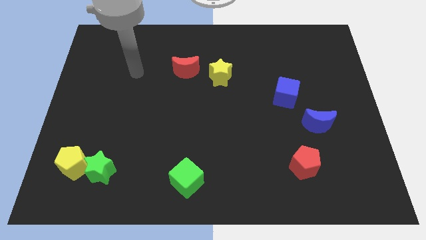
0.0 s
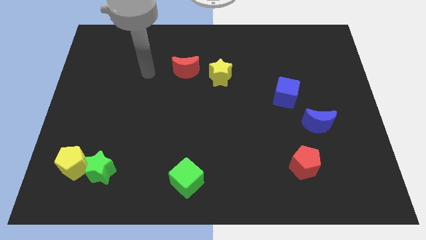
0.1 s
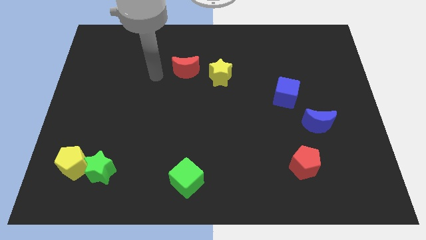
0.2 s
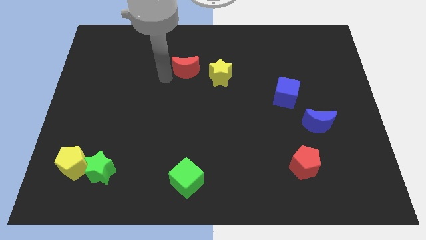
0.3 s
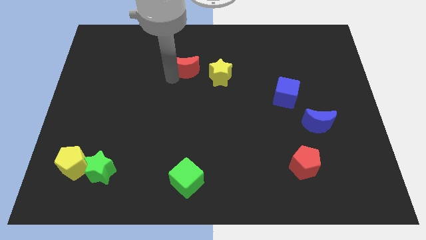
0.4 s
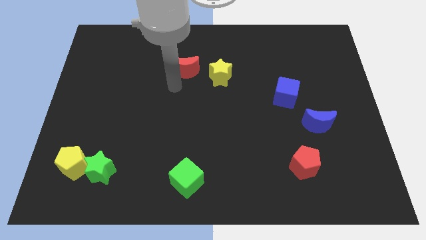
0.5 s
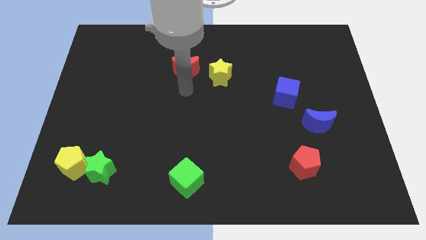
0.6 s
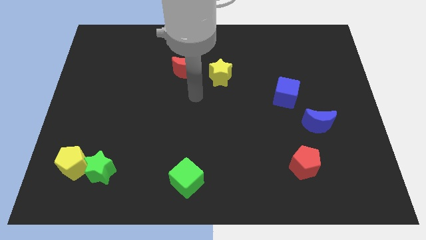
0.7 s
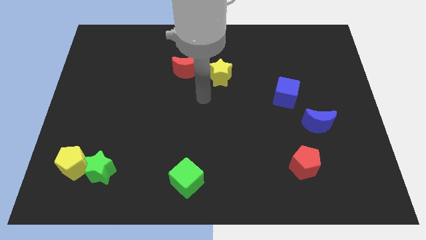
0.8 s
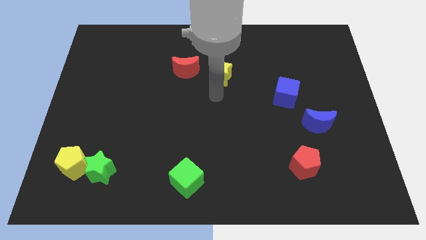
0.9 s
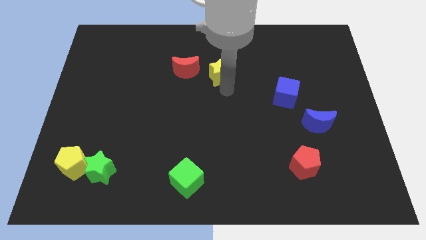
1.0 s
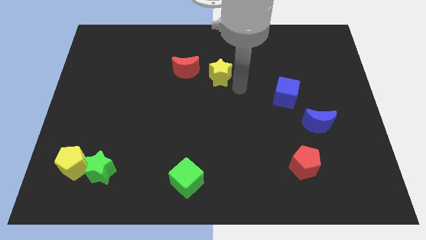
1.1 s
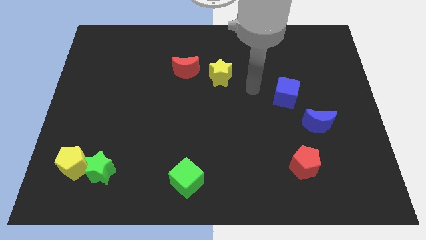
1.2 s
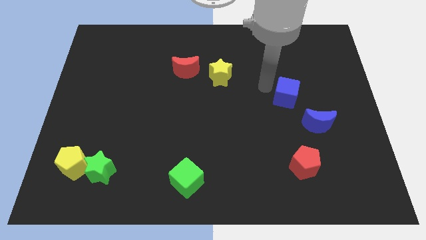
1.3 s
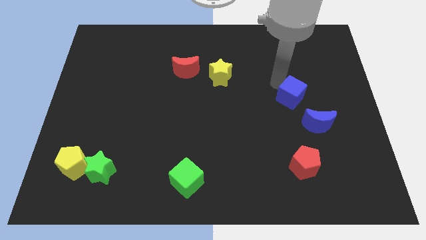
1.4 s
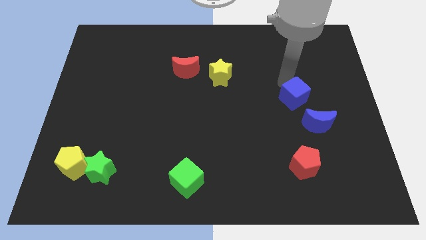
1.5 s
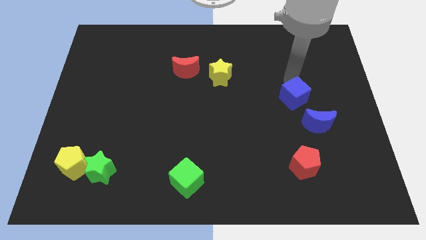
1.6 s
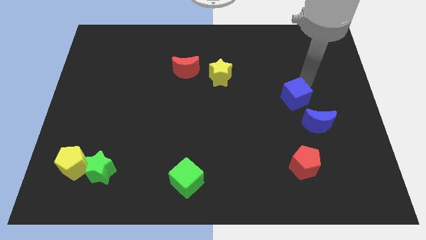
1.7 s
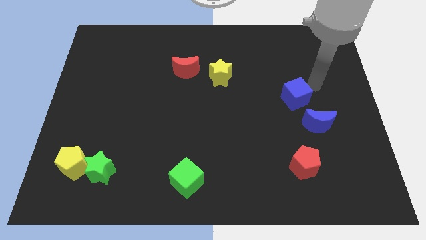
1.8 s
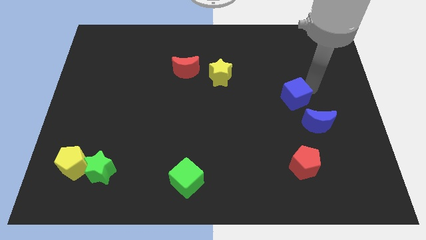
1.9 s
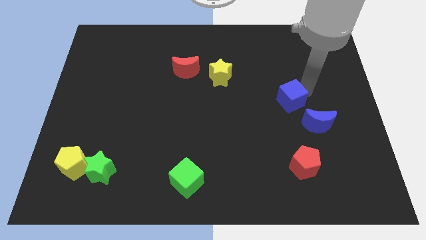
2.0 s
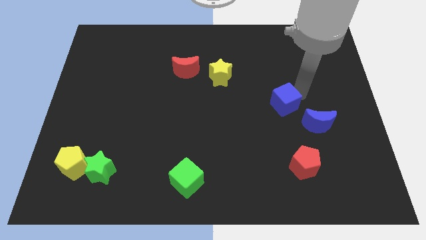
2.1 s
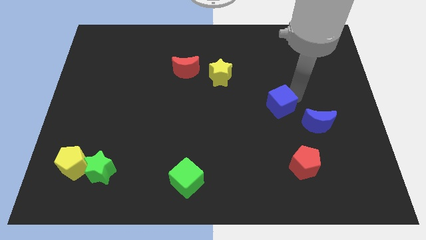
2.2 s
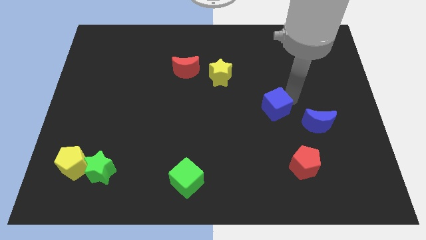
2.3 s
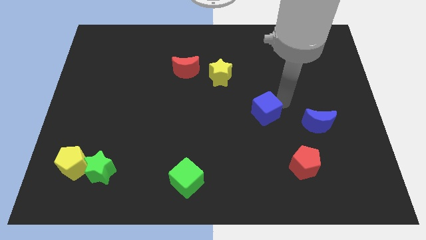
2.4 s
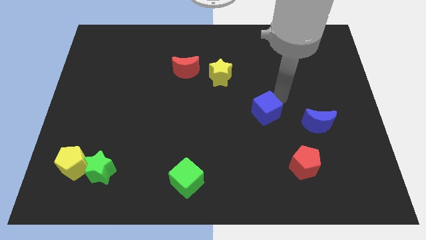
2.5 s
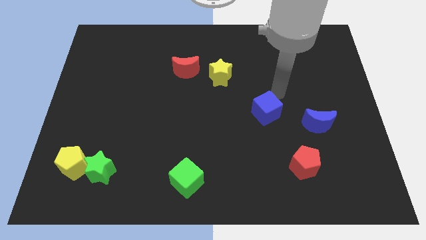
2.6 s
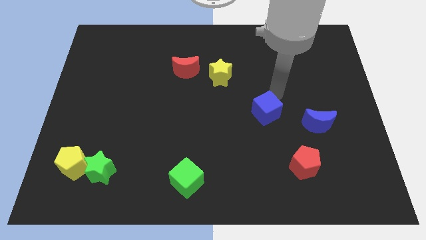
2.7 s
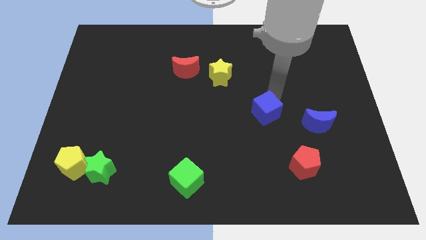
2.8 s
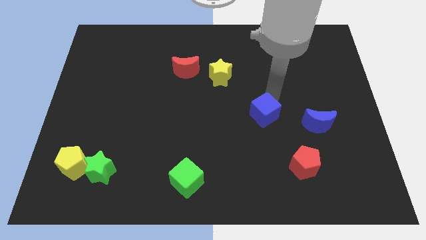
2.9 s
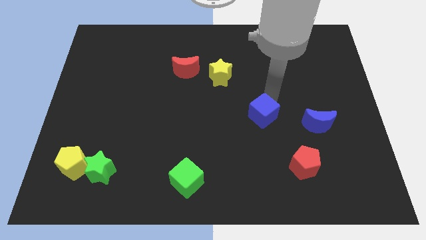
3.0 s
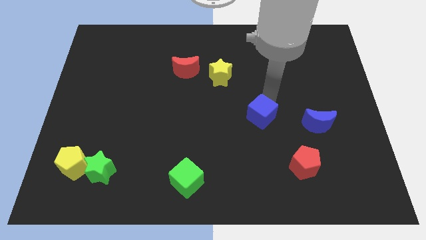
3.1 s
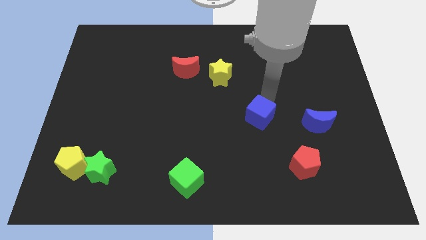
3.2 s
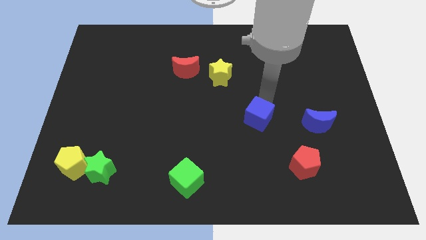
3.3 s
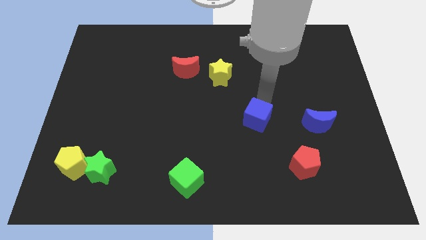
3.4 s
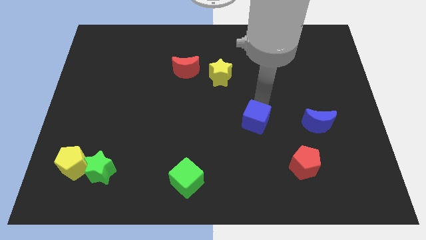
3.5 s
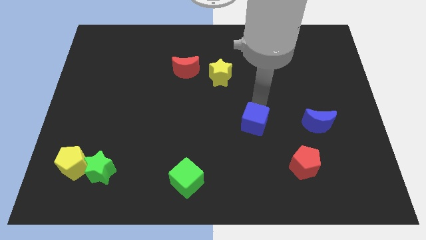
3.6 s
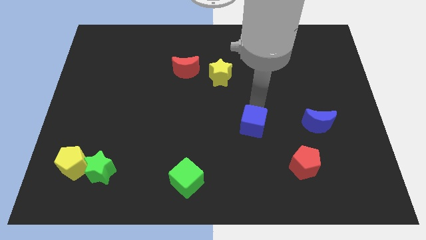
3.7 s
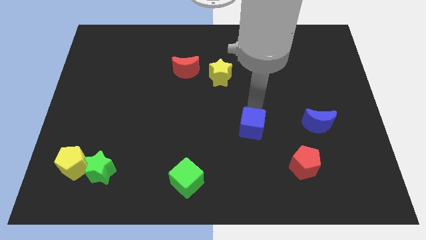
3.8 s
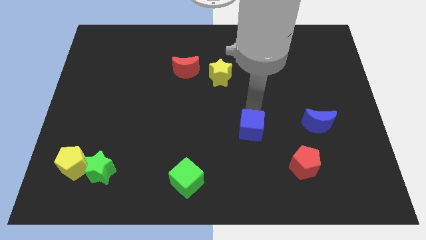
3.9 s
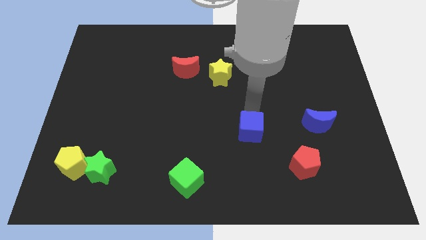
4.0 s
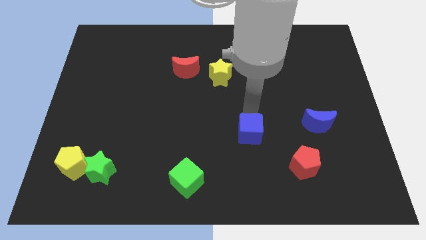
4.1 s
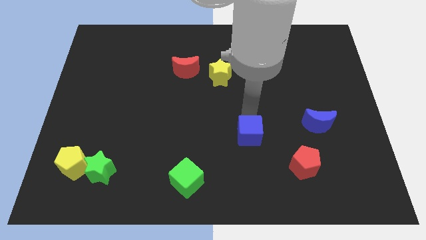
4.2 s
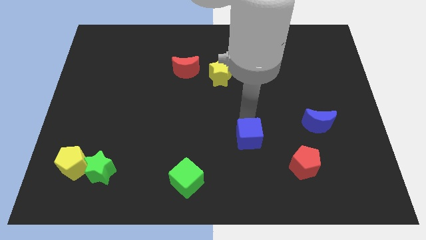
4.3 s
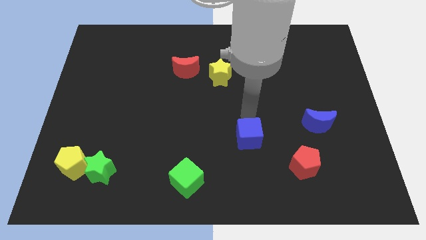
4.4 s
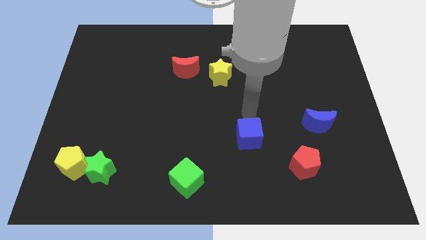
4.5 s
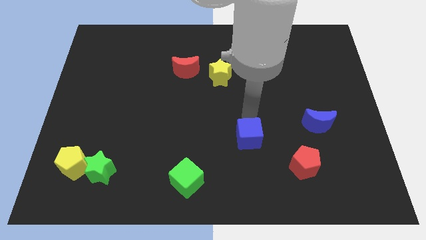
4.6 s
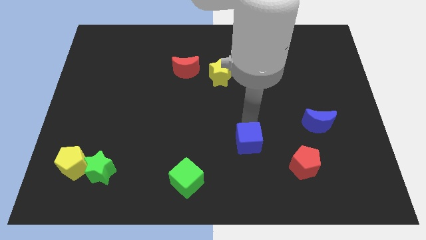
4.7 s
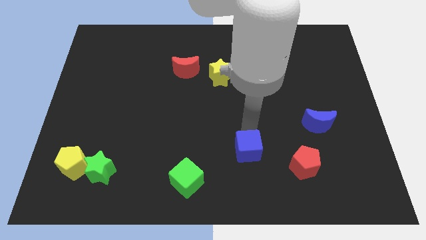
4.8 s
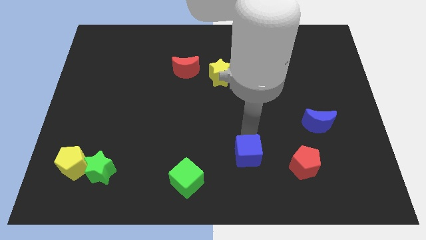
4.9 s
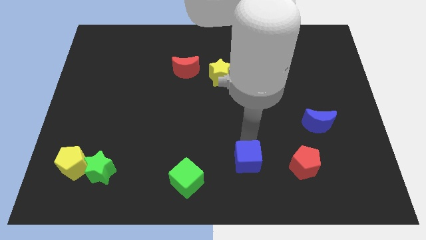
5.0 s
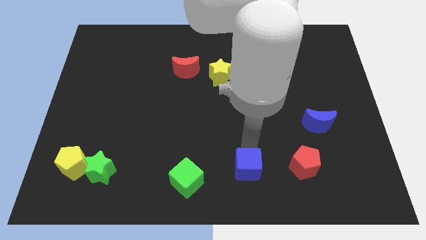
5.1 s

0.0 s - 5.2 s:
put the blue cube to the bottom side
